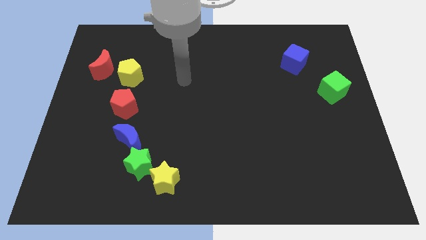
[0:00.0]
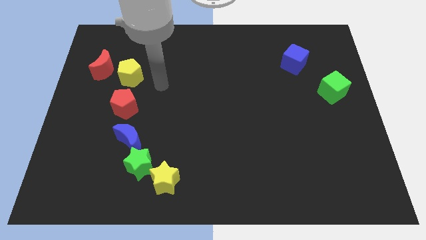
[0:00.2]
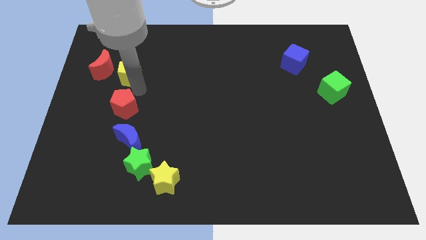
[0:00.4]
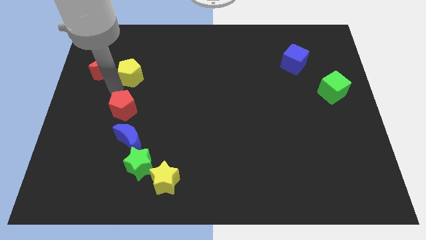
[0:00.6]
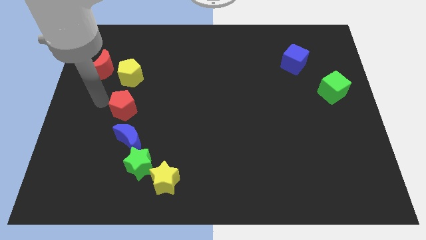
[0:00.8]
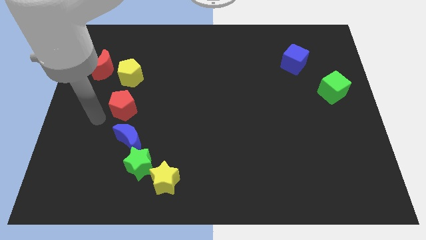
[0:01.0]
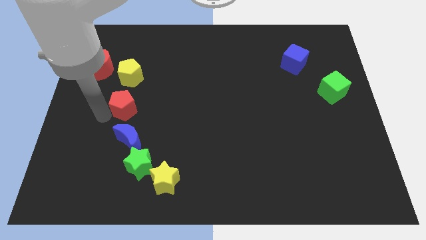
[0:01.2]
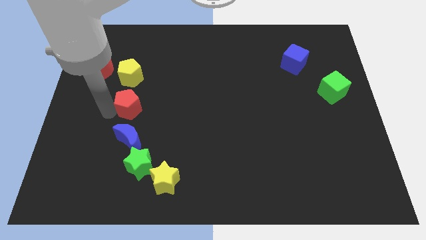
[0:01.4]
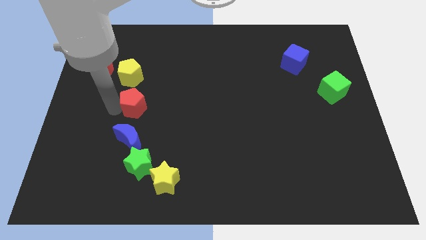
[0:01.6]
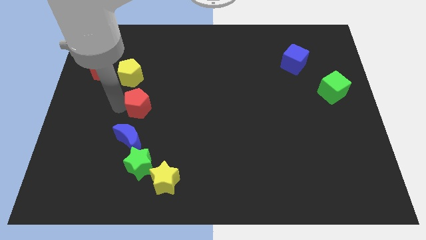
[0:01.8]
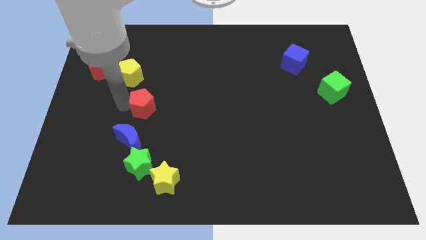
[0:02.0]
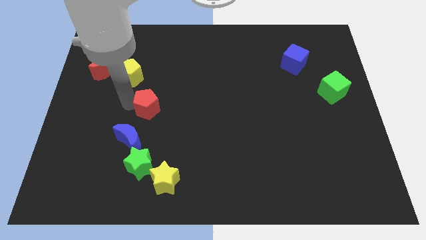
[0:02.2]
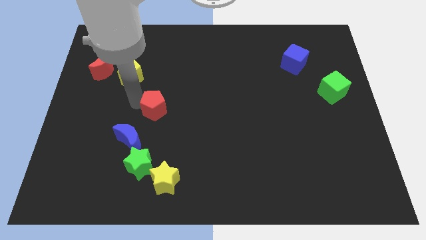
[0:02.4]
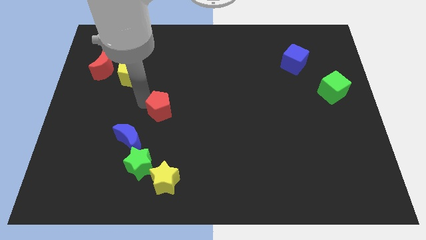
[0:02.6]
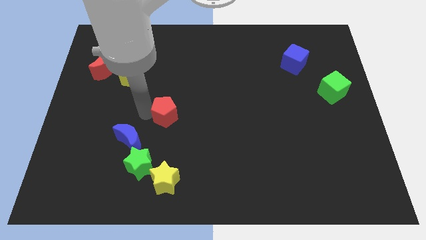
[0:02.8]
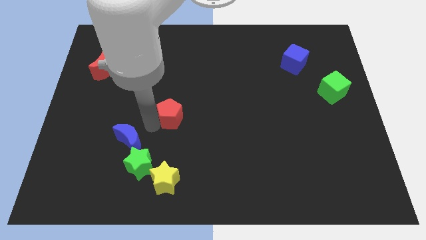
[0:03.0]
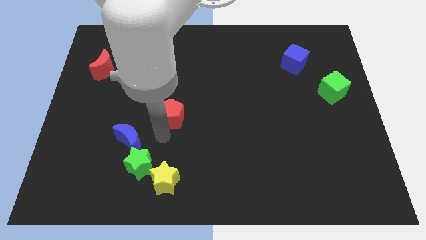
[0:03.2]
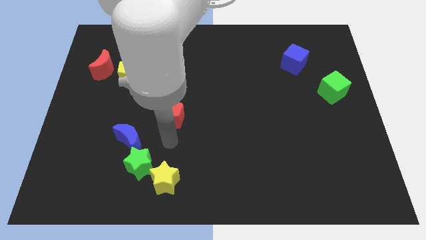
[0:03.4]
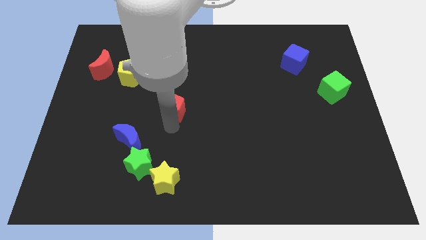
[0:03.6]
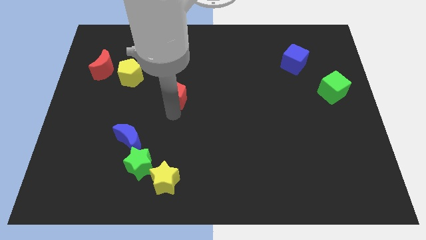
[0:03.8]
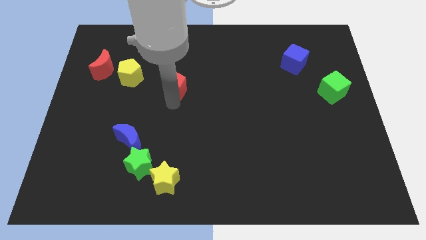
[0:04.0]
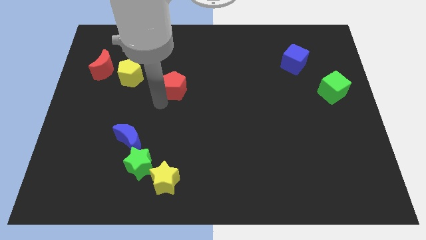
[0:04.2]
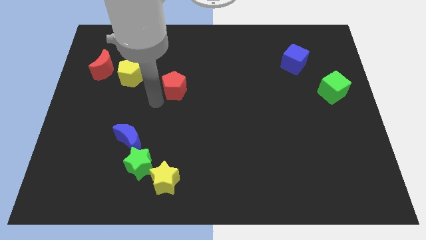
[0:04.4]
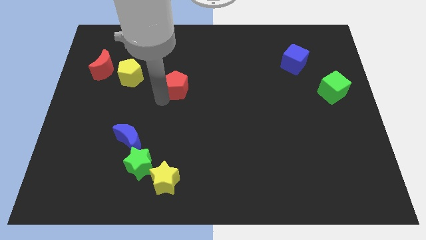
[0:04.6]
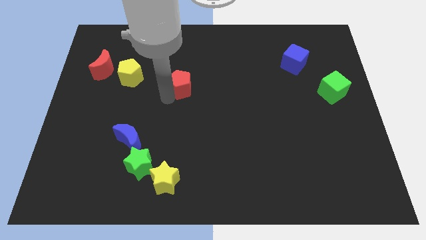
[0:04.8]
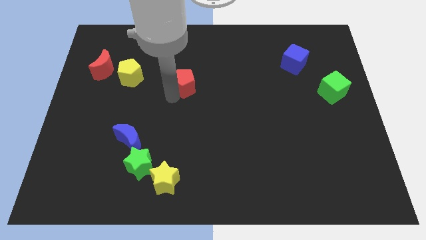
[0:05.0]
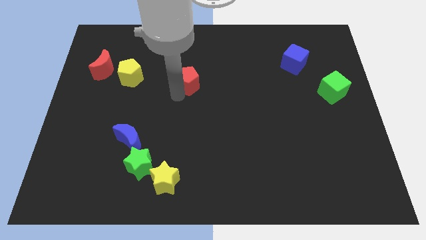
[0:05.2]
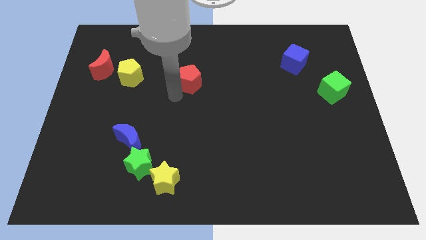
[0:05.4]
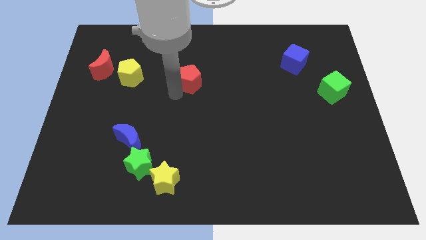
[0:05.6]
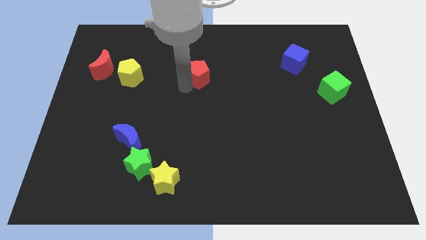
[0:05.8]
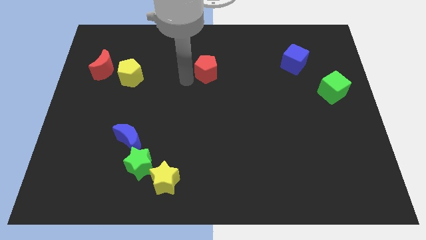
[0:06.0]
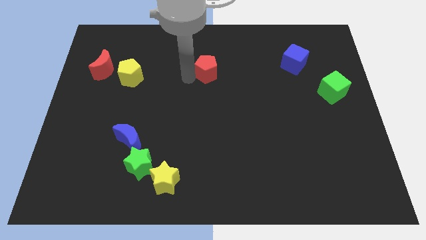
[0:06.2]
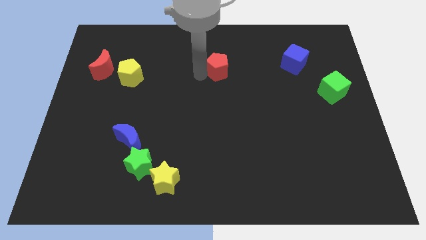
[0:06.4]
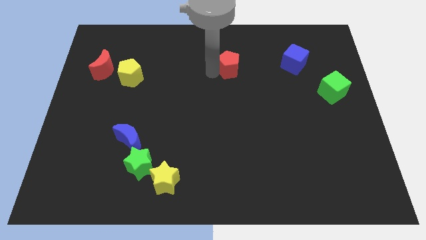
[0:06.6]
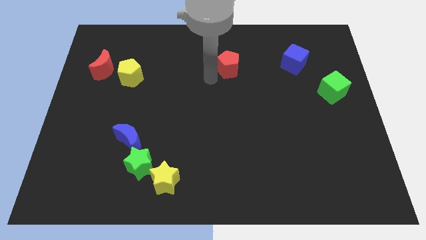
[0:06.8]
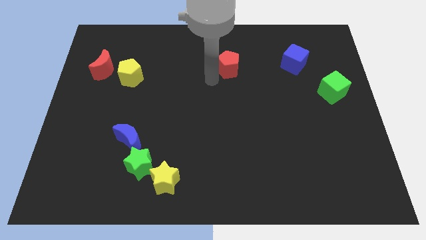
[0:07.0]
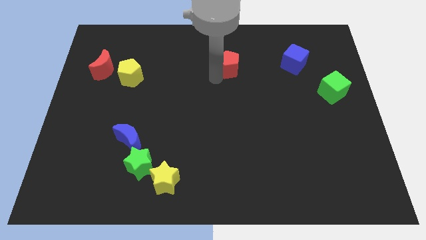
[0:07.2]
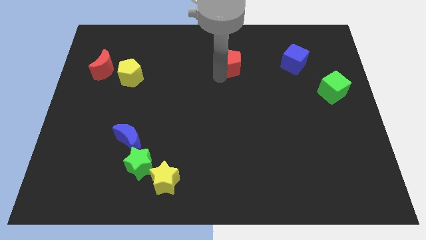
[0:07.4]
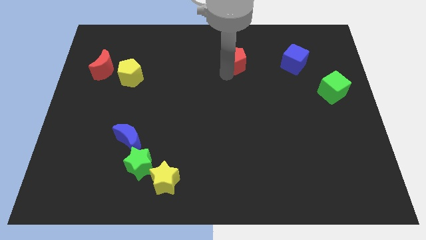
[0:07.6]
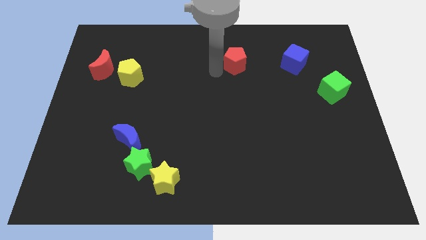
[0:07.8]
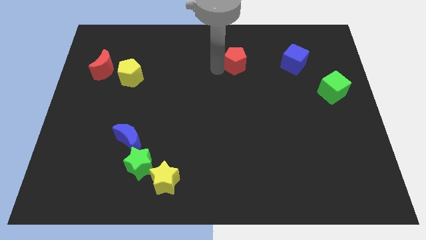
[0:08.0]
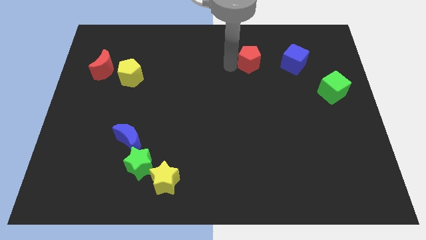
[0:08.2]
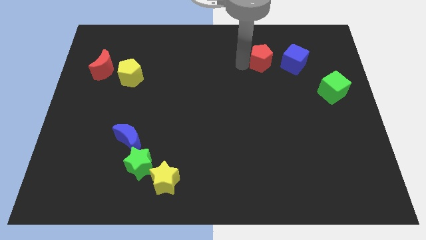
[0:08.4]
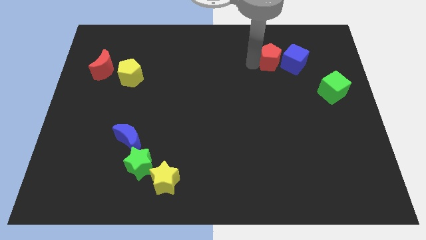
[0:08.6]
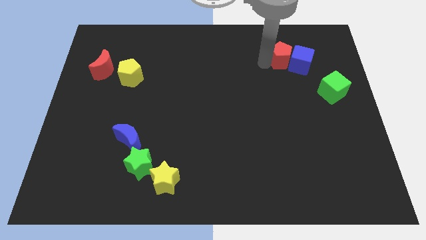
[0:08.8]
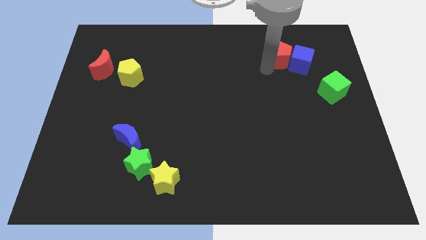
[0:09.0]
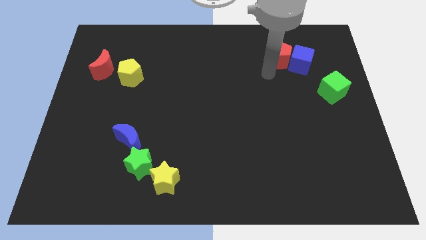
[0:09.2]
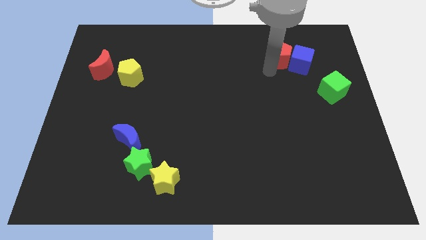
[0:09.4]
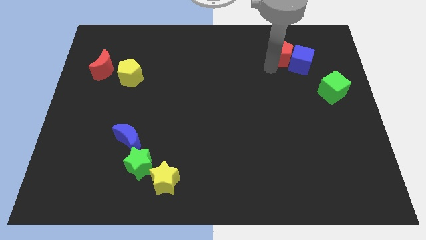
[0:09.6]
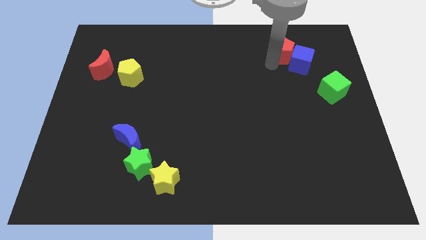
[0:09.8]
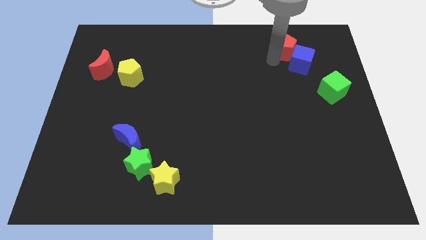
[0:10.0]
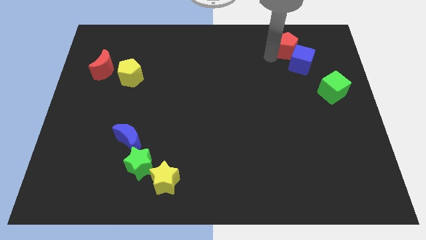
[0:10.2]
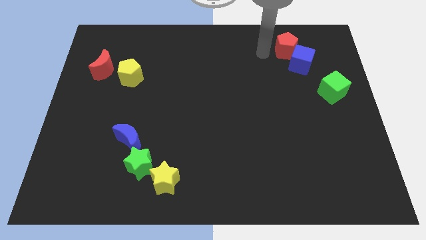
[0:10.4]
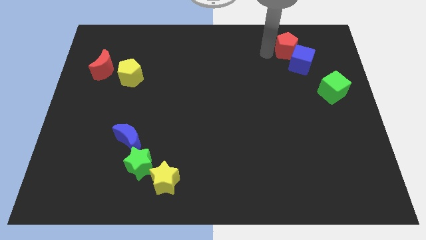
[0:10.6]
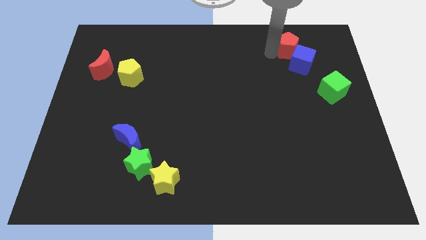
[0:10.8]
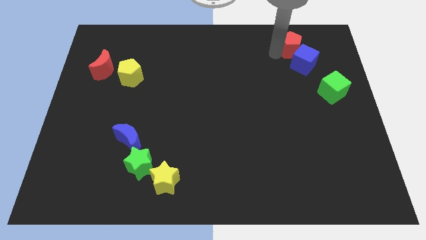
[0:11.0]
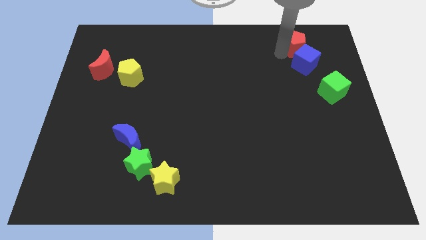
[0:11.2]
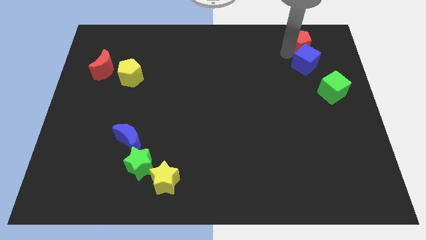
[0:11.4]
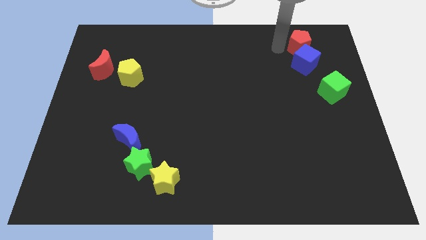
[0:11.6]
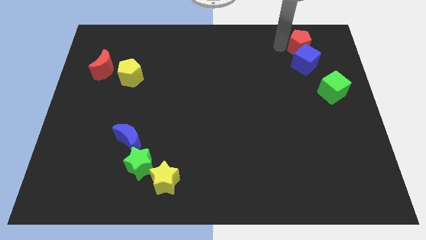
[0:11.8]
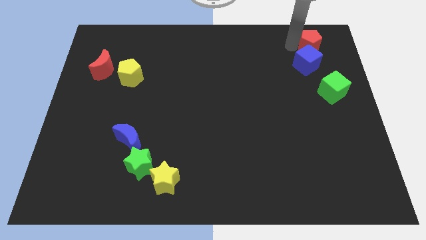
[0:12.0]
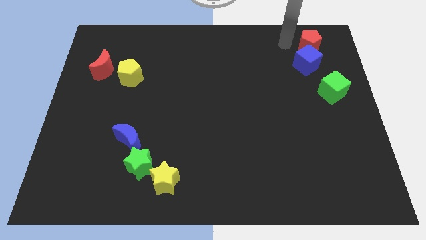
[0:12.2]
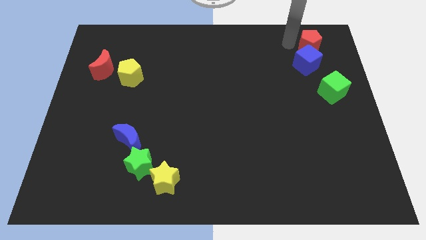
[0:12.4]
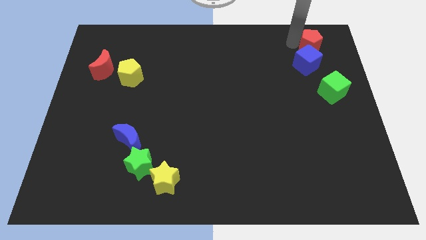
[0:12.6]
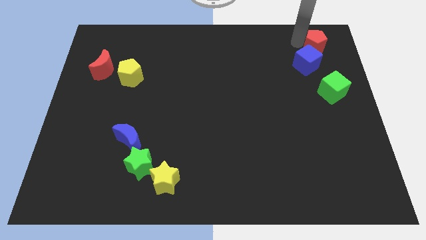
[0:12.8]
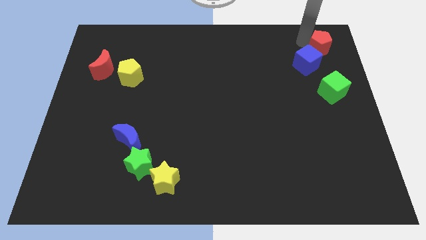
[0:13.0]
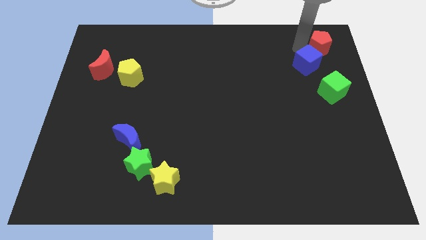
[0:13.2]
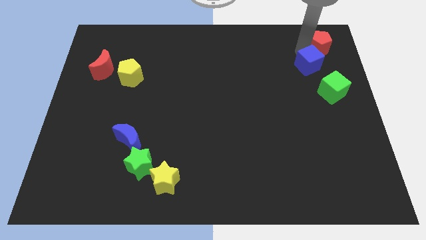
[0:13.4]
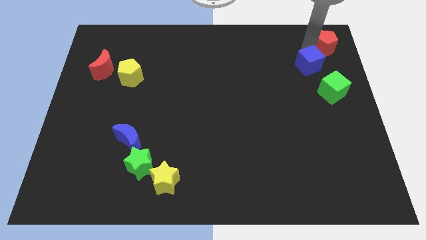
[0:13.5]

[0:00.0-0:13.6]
slide the red pentagon to the top right
